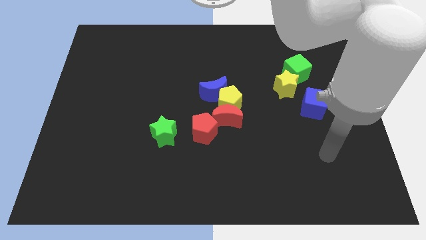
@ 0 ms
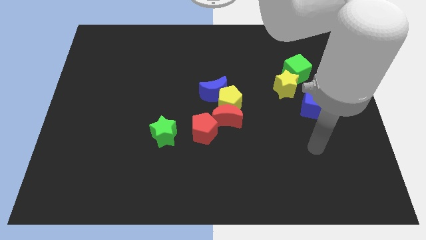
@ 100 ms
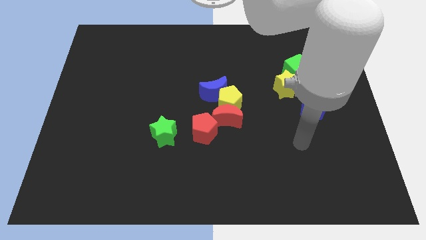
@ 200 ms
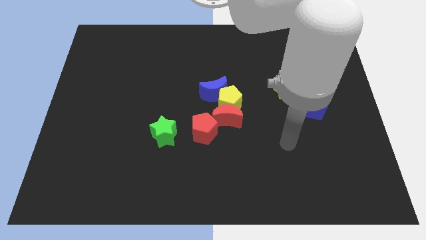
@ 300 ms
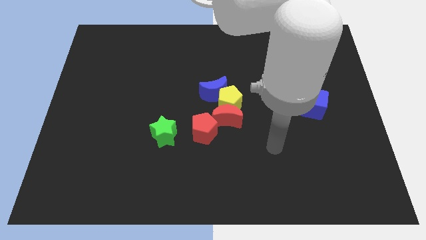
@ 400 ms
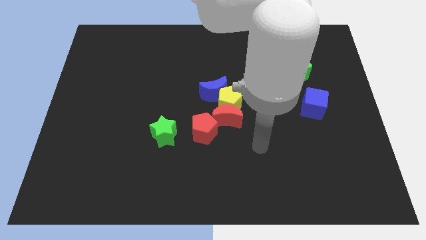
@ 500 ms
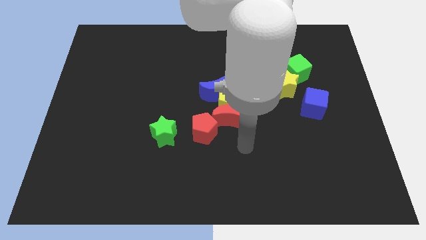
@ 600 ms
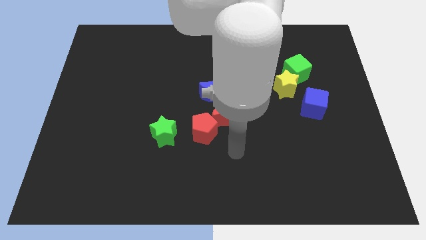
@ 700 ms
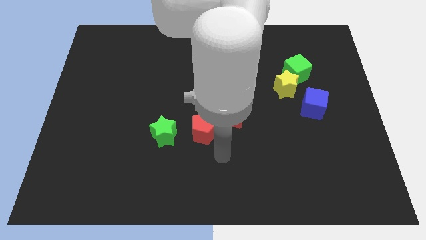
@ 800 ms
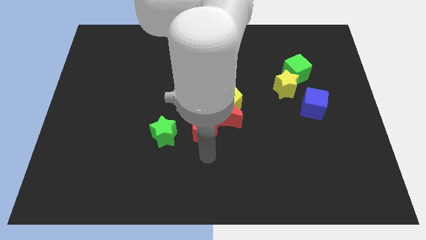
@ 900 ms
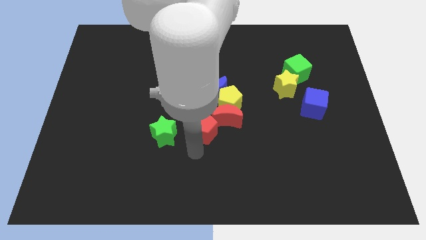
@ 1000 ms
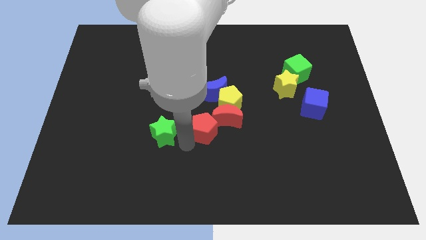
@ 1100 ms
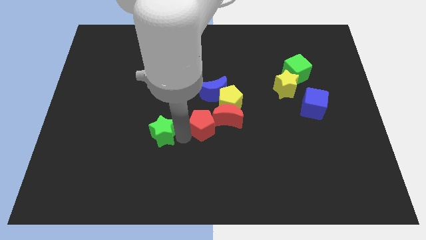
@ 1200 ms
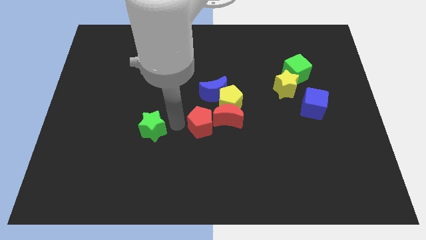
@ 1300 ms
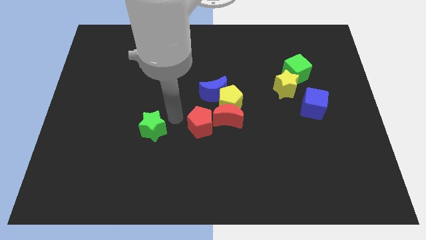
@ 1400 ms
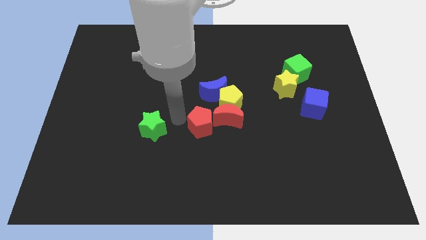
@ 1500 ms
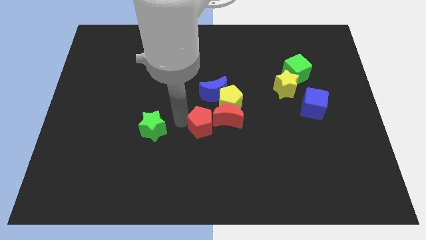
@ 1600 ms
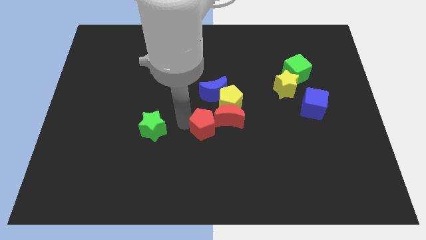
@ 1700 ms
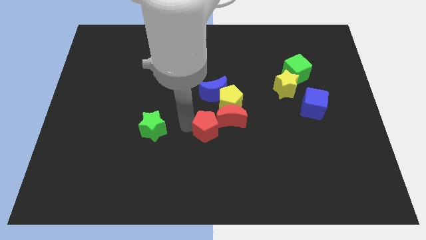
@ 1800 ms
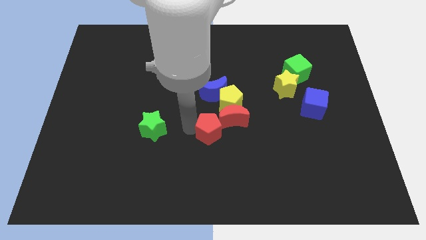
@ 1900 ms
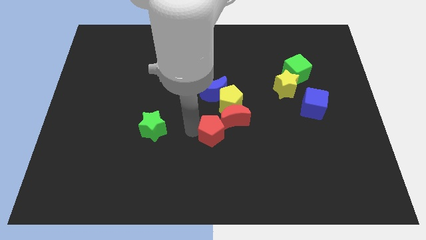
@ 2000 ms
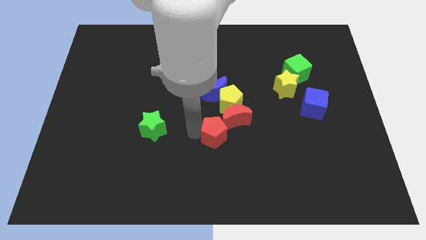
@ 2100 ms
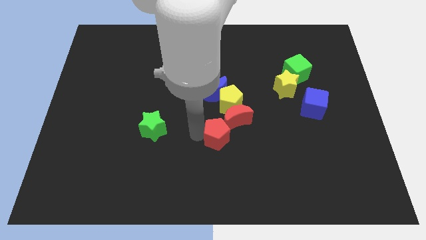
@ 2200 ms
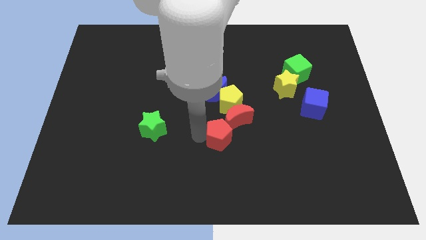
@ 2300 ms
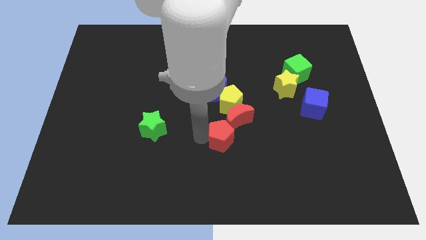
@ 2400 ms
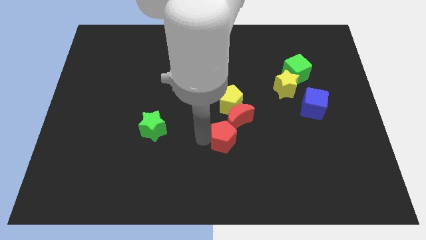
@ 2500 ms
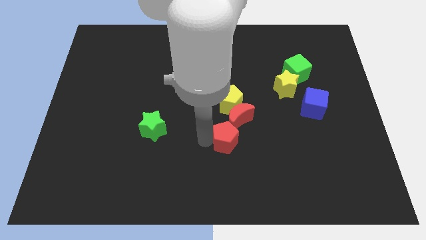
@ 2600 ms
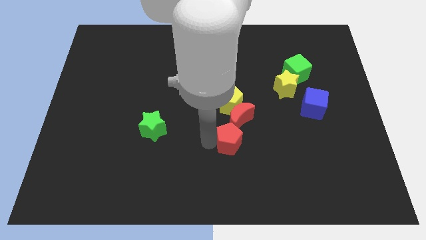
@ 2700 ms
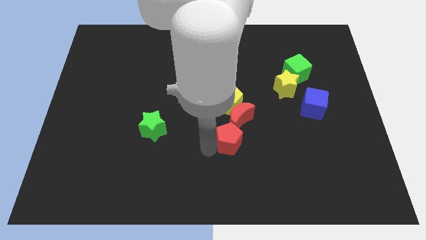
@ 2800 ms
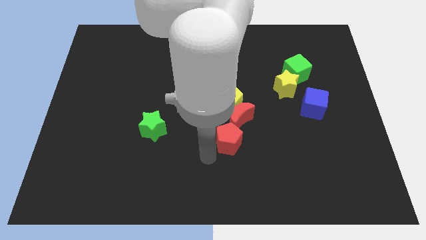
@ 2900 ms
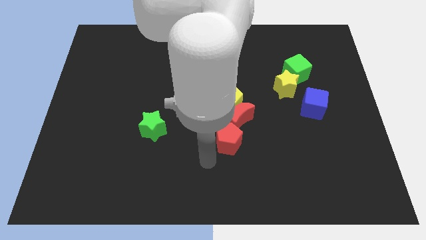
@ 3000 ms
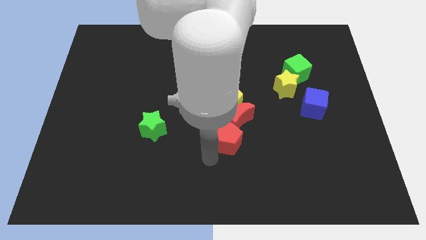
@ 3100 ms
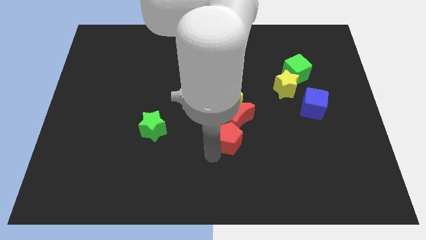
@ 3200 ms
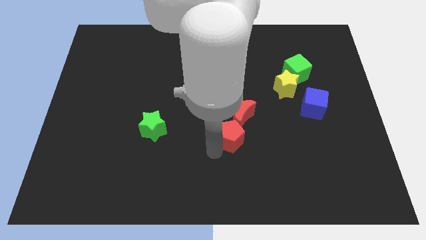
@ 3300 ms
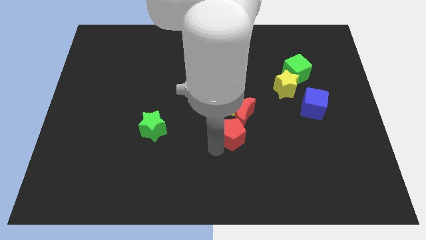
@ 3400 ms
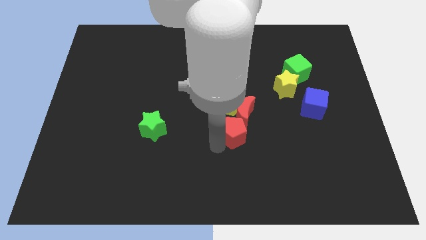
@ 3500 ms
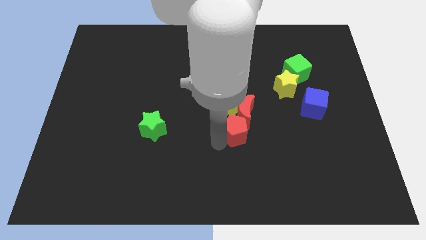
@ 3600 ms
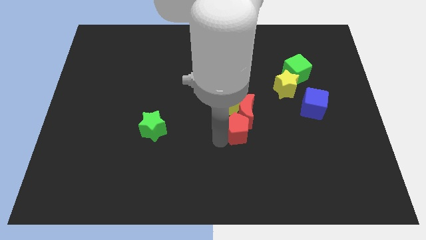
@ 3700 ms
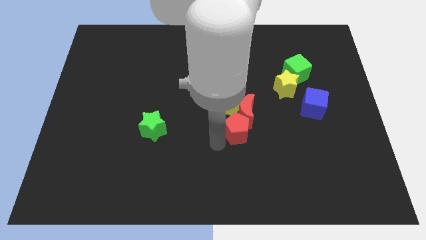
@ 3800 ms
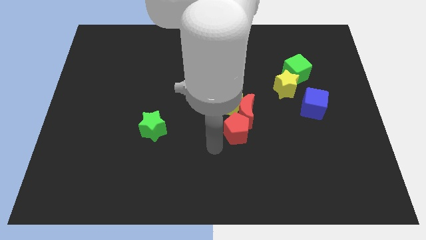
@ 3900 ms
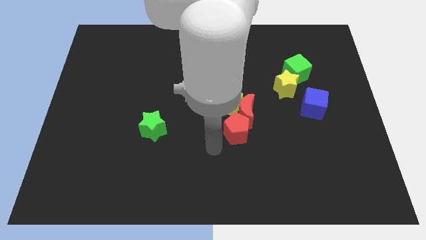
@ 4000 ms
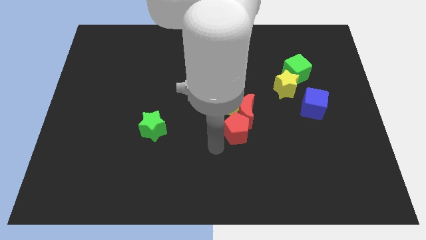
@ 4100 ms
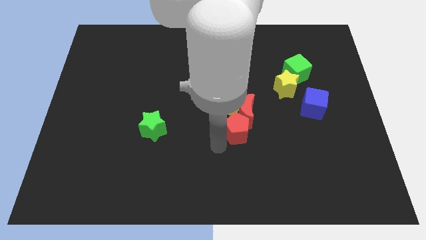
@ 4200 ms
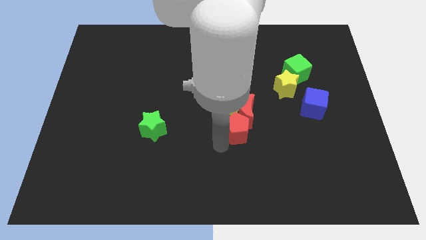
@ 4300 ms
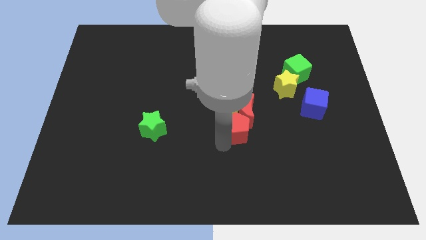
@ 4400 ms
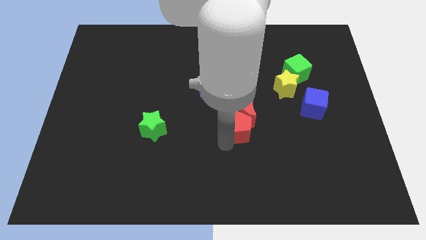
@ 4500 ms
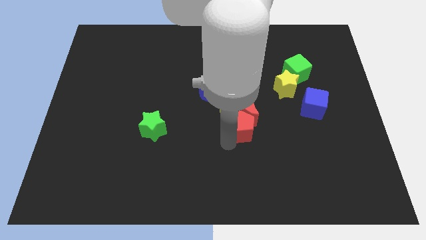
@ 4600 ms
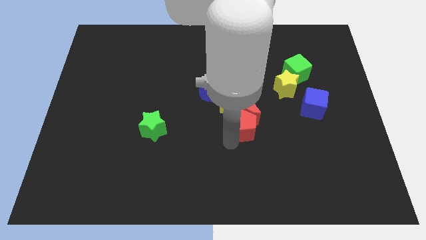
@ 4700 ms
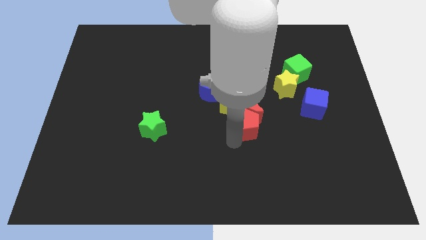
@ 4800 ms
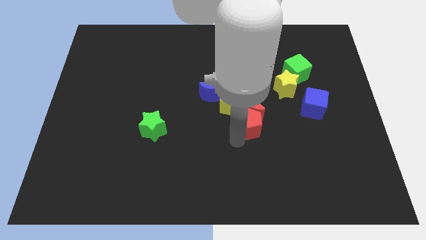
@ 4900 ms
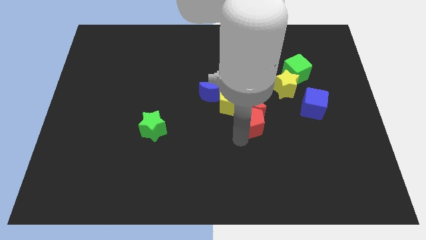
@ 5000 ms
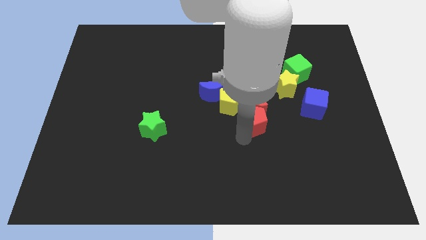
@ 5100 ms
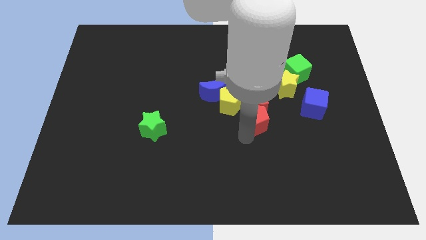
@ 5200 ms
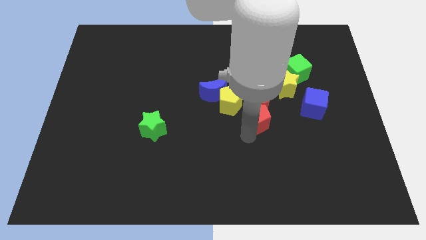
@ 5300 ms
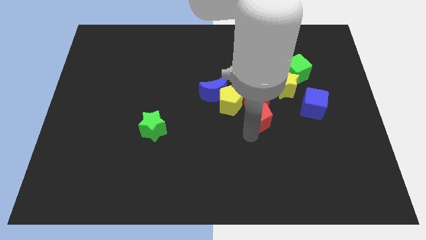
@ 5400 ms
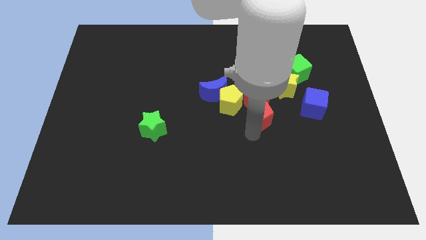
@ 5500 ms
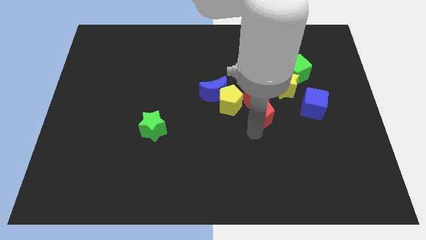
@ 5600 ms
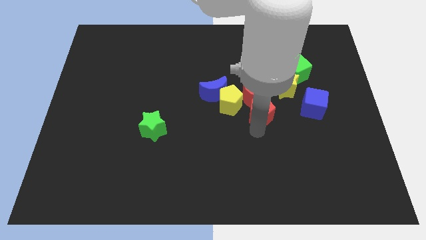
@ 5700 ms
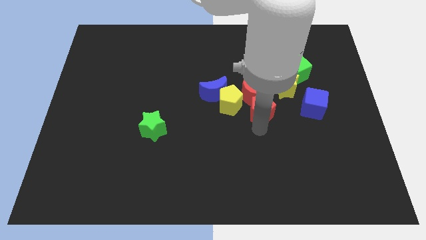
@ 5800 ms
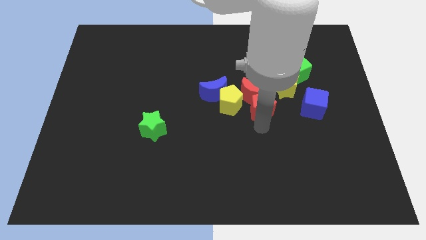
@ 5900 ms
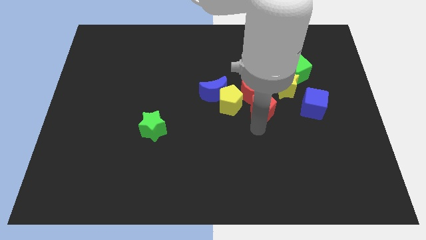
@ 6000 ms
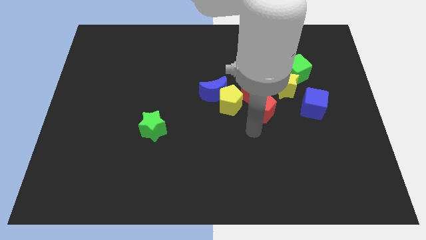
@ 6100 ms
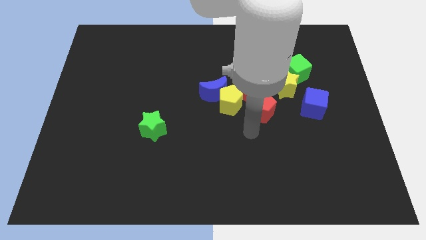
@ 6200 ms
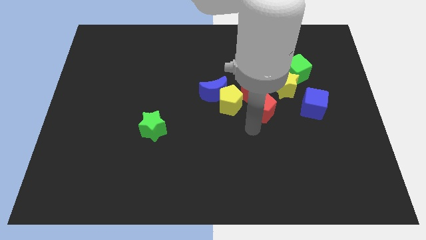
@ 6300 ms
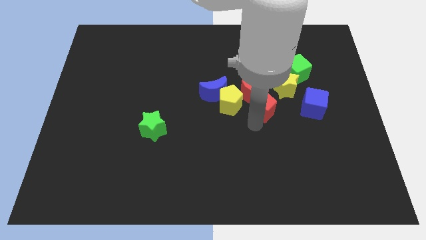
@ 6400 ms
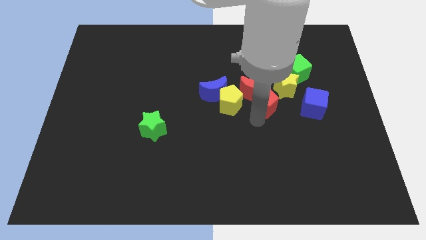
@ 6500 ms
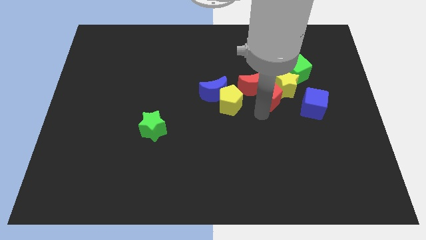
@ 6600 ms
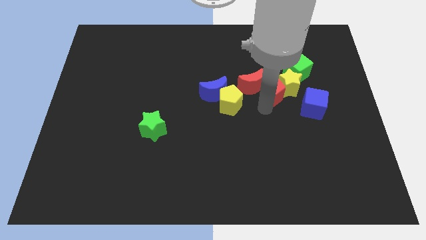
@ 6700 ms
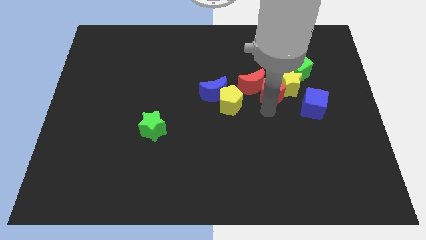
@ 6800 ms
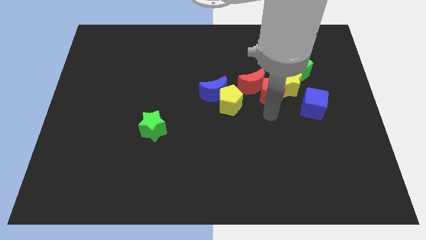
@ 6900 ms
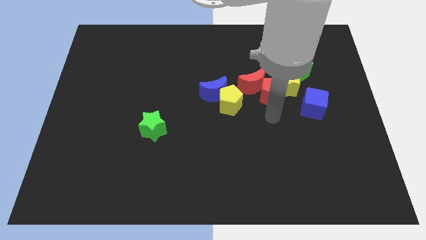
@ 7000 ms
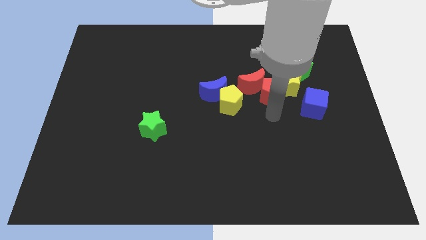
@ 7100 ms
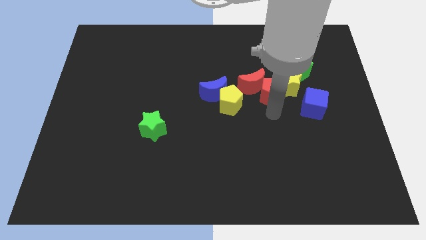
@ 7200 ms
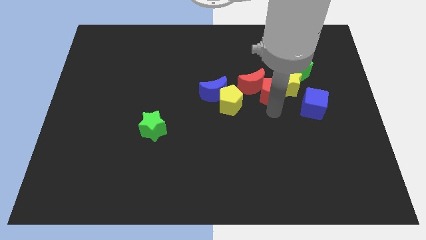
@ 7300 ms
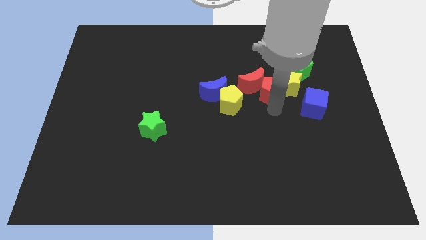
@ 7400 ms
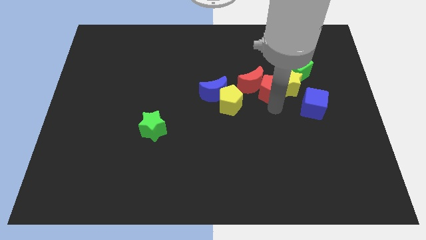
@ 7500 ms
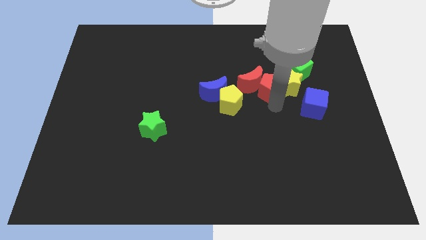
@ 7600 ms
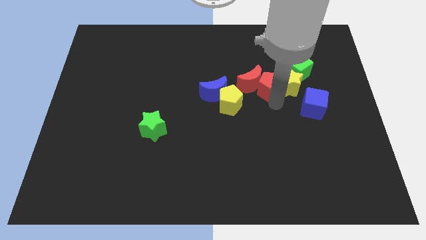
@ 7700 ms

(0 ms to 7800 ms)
move the red pentagon up and right

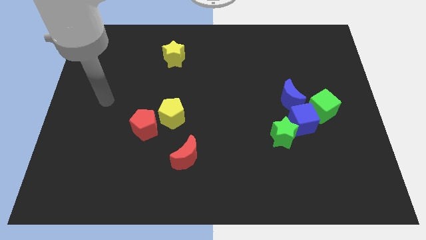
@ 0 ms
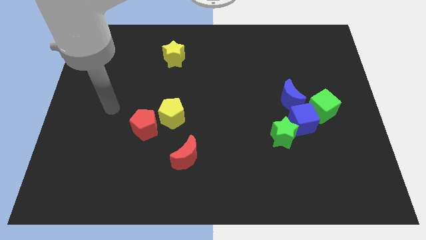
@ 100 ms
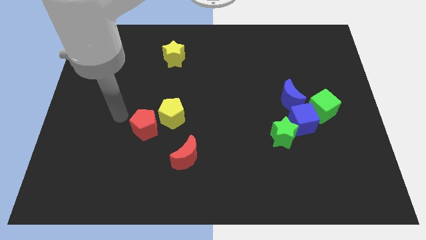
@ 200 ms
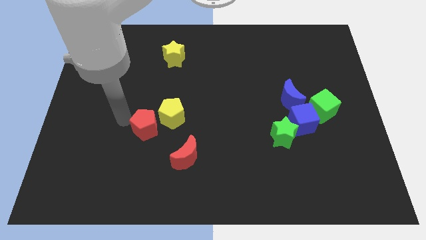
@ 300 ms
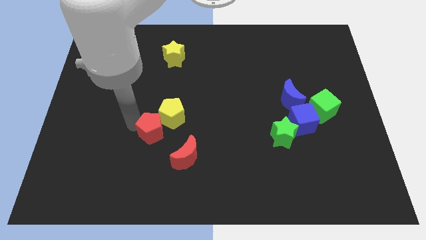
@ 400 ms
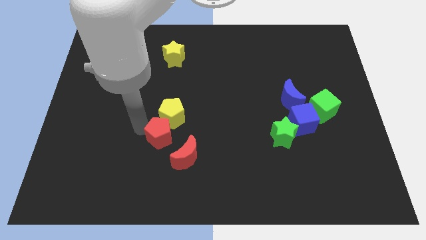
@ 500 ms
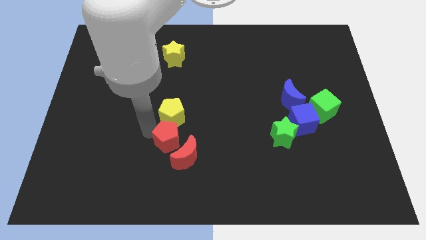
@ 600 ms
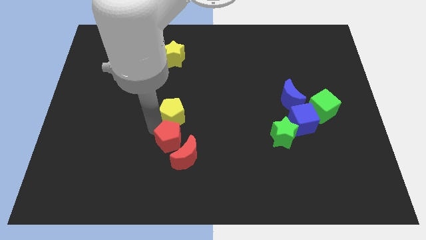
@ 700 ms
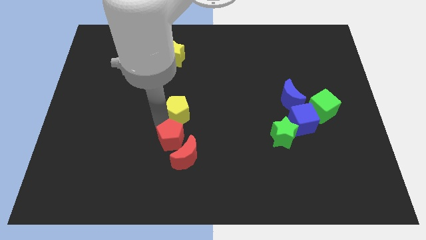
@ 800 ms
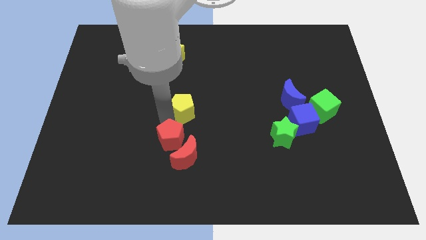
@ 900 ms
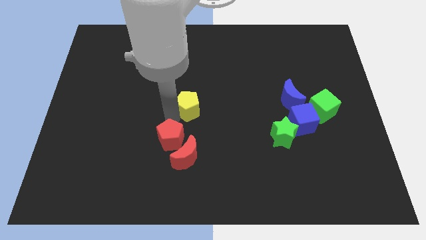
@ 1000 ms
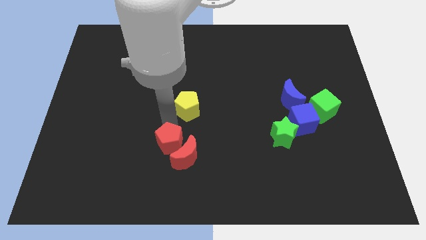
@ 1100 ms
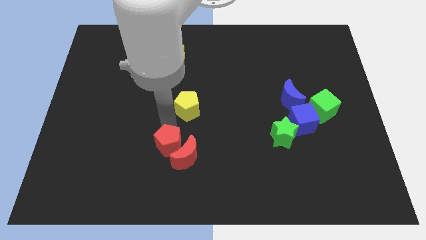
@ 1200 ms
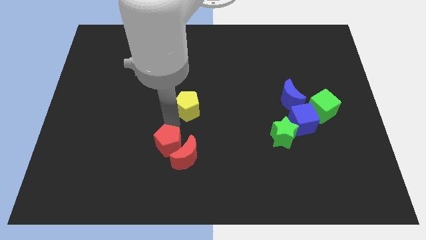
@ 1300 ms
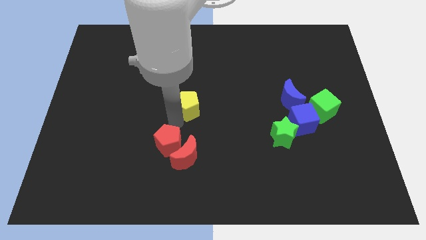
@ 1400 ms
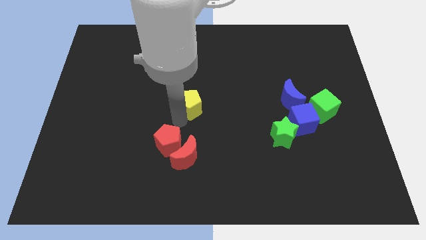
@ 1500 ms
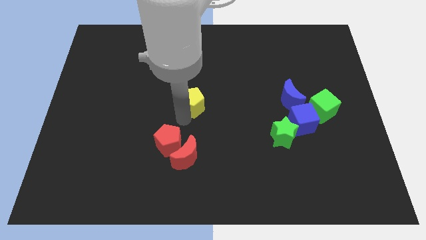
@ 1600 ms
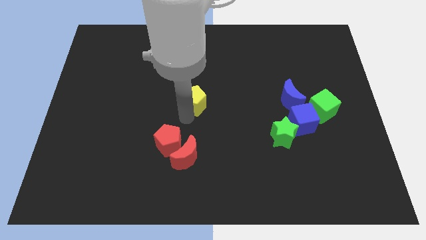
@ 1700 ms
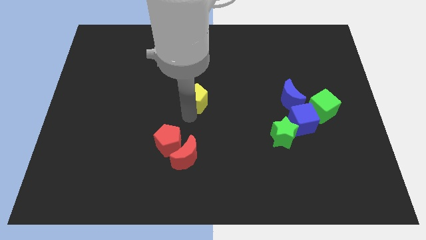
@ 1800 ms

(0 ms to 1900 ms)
push the yellow pentagon a little up and right diagonally
